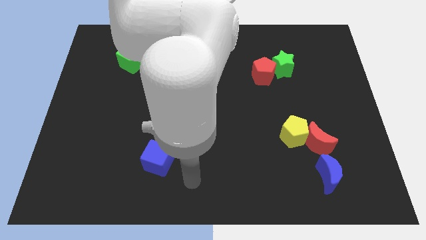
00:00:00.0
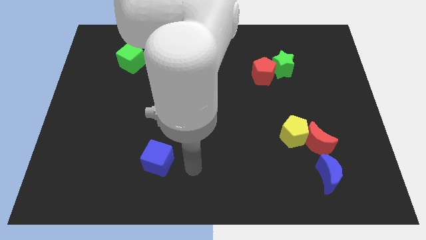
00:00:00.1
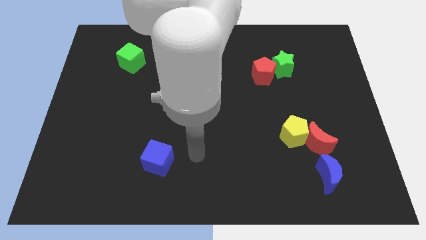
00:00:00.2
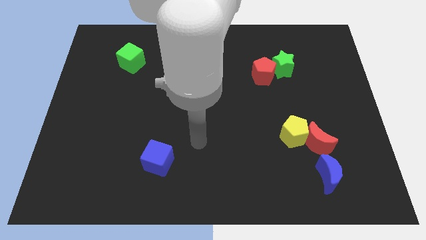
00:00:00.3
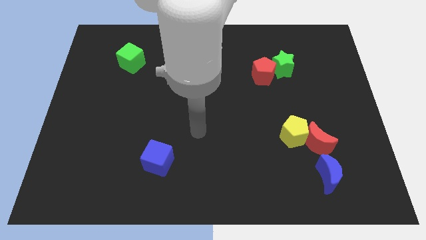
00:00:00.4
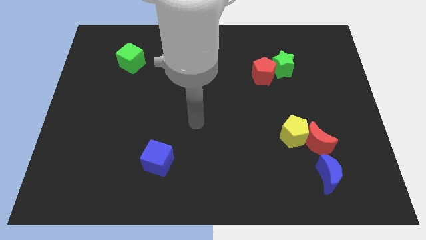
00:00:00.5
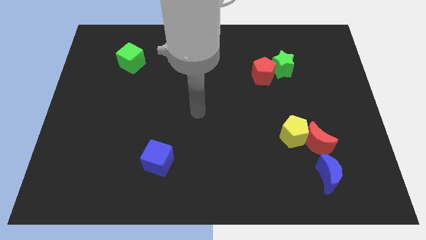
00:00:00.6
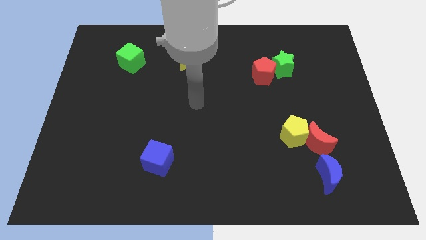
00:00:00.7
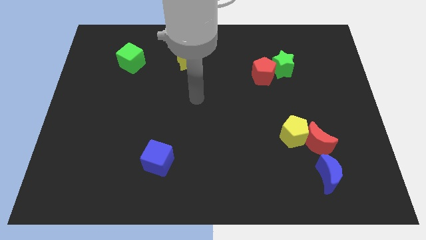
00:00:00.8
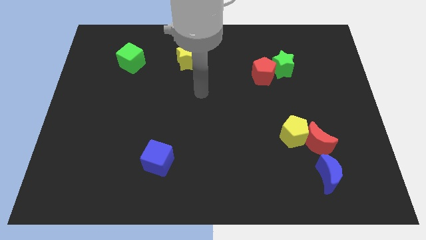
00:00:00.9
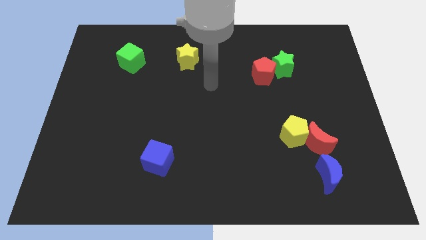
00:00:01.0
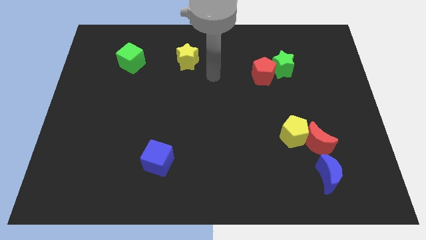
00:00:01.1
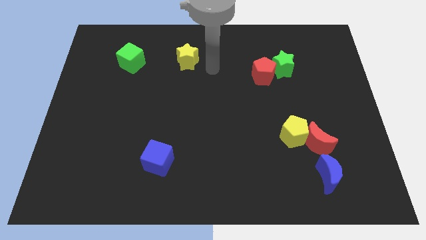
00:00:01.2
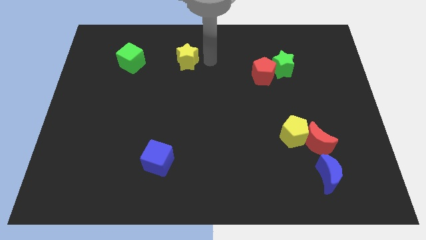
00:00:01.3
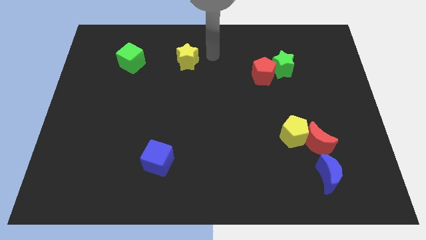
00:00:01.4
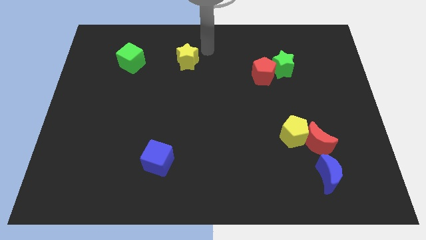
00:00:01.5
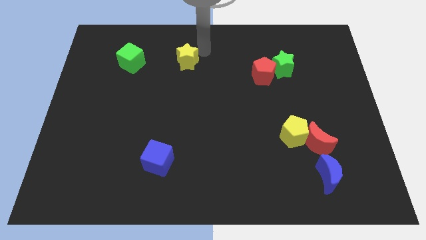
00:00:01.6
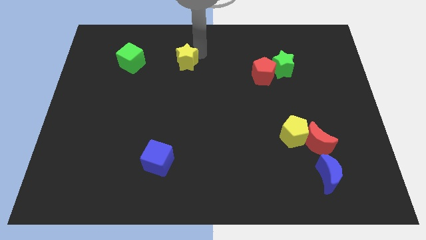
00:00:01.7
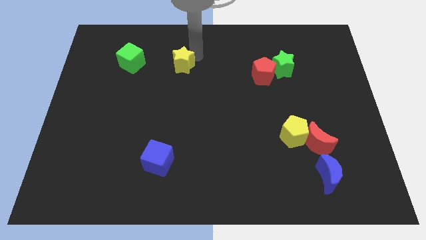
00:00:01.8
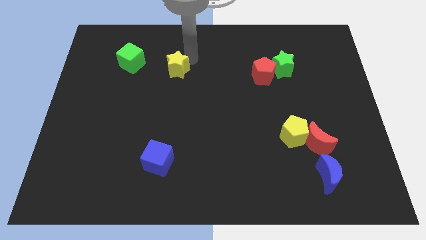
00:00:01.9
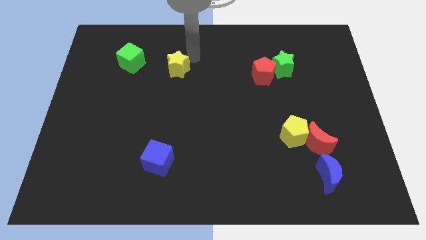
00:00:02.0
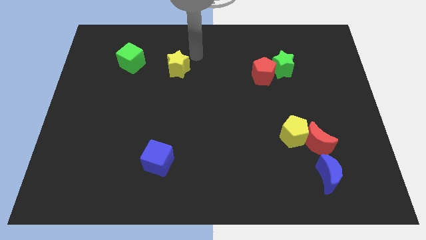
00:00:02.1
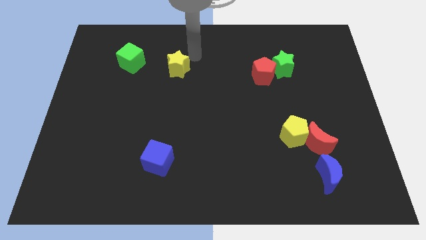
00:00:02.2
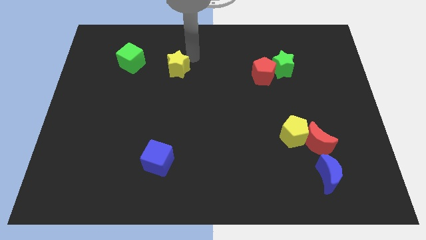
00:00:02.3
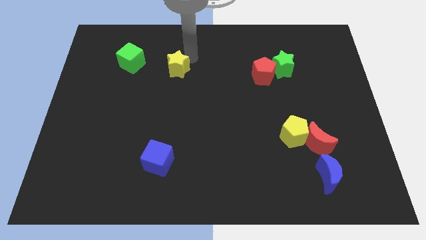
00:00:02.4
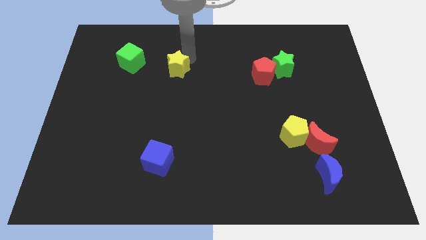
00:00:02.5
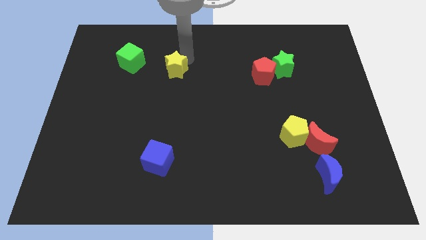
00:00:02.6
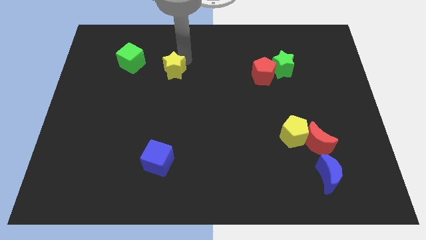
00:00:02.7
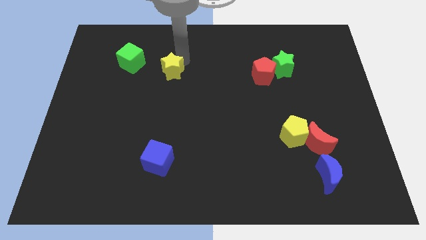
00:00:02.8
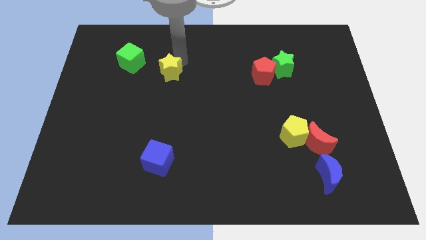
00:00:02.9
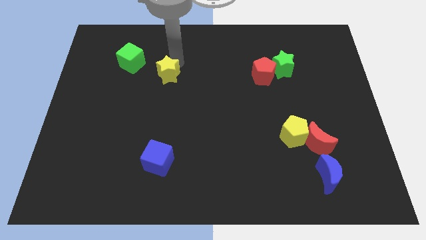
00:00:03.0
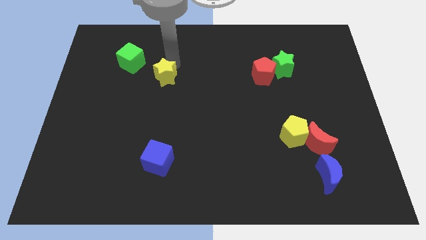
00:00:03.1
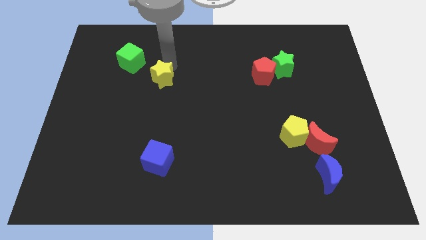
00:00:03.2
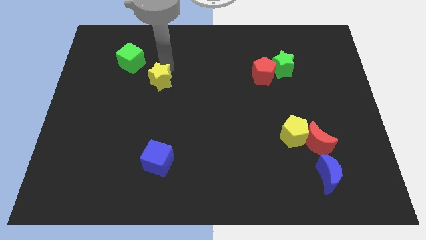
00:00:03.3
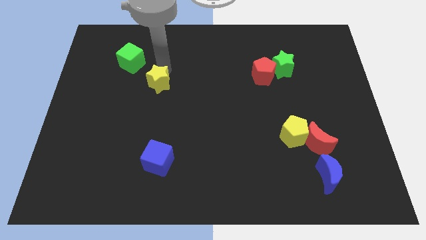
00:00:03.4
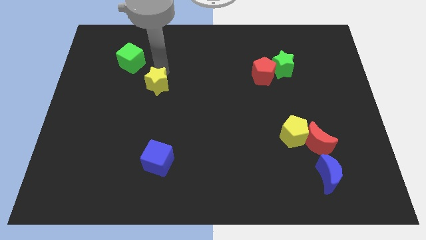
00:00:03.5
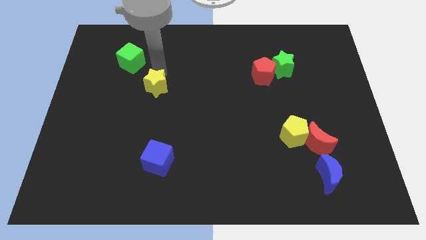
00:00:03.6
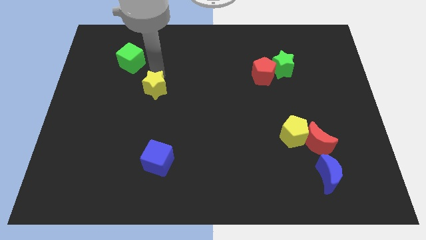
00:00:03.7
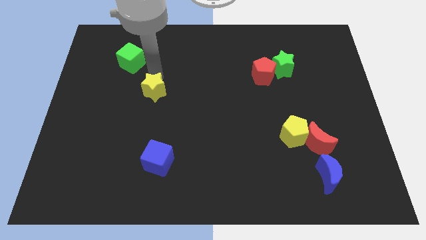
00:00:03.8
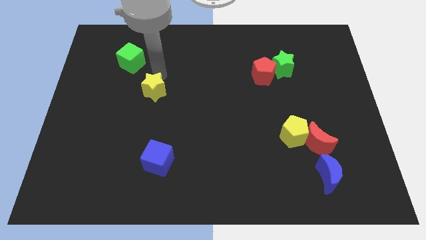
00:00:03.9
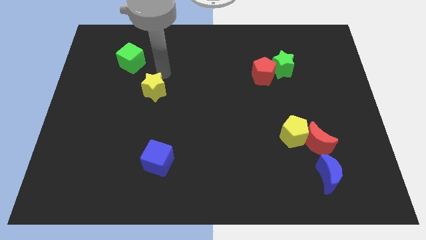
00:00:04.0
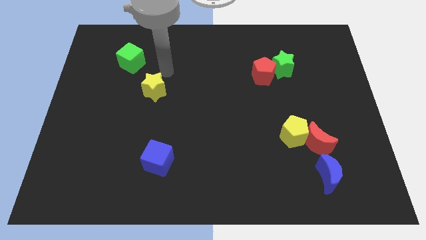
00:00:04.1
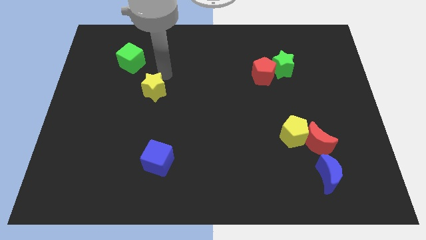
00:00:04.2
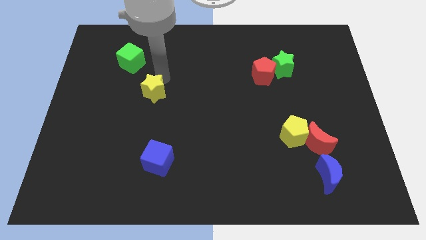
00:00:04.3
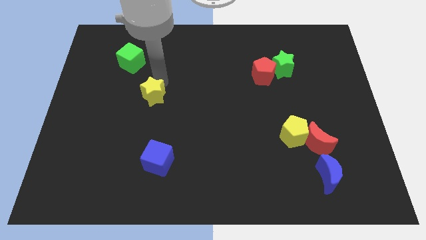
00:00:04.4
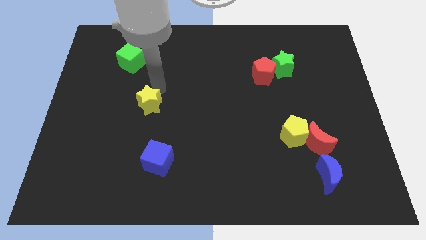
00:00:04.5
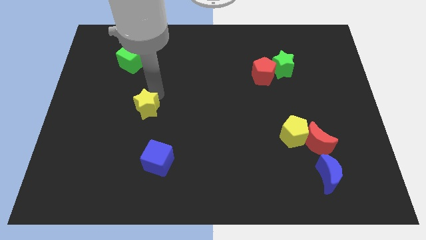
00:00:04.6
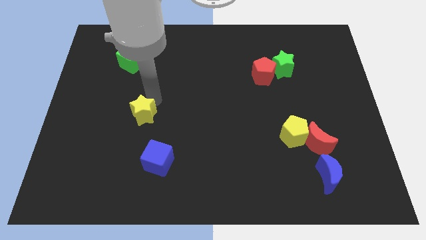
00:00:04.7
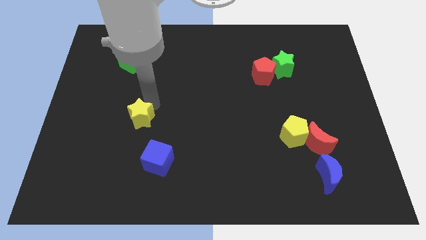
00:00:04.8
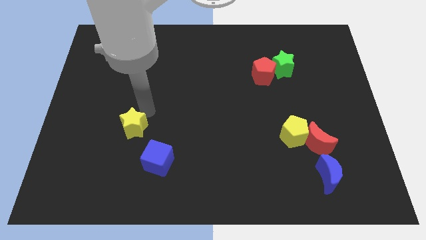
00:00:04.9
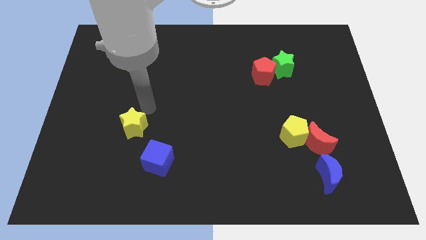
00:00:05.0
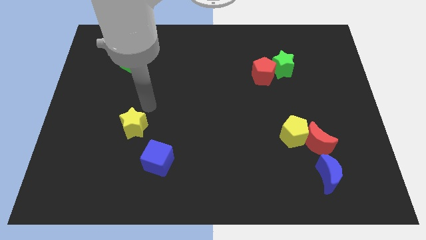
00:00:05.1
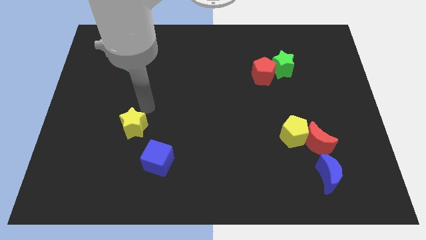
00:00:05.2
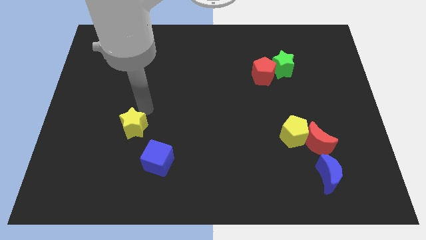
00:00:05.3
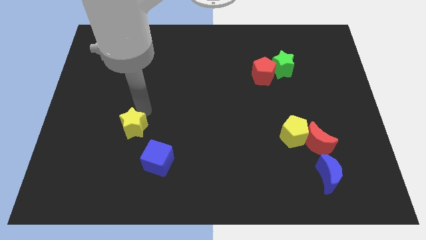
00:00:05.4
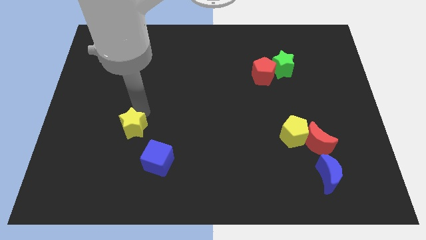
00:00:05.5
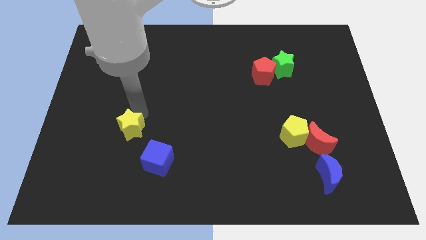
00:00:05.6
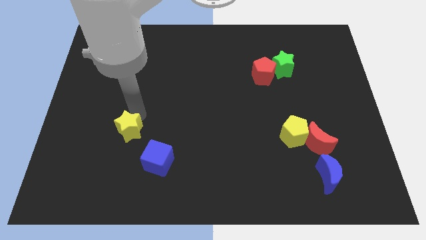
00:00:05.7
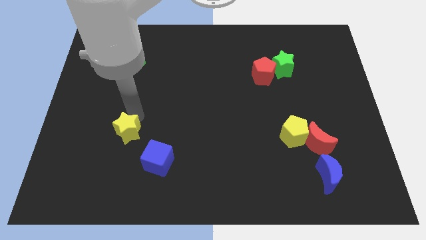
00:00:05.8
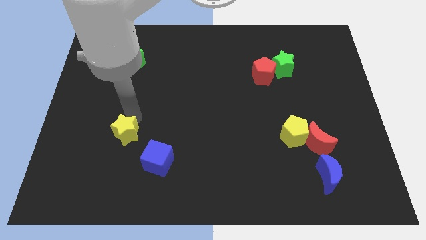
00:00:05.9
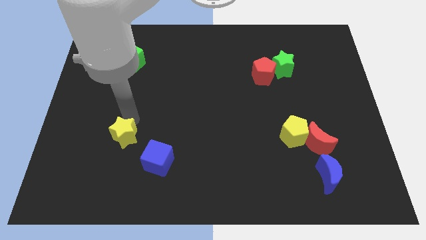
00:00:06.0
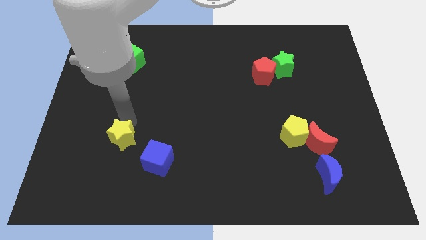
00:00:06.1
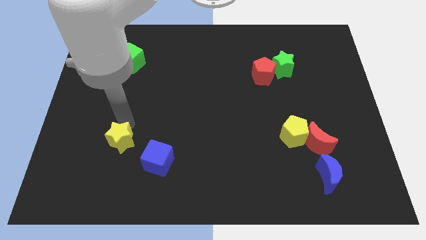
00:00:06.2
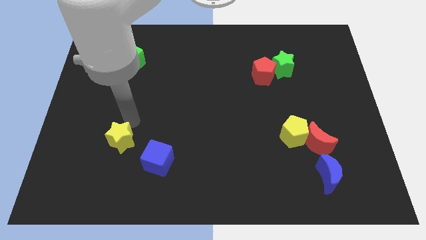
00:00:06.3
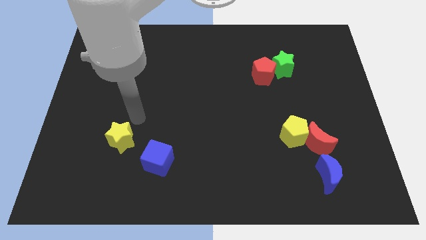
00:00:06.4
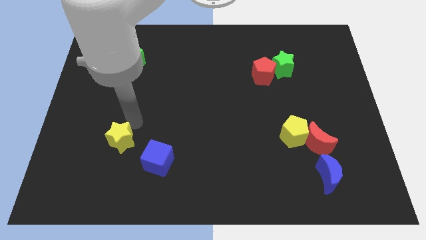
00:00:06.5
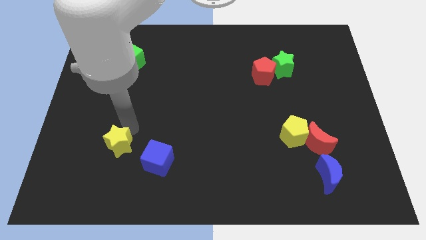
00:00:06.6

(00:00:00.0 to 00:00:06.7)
move the yellow star to the left side of the blue cube
